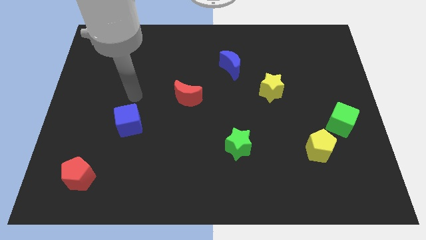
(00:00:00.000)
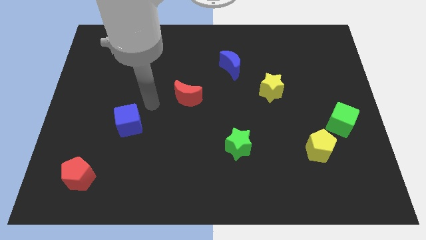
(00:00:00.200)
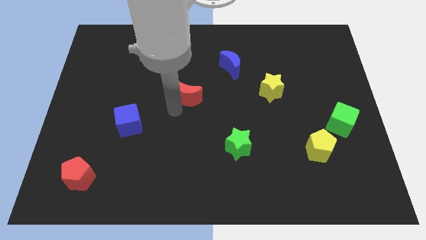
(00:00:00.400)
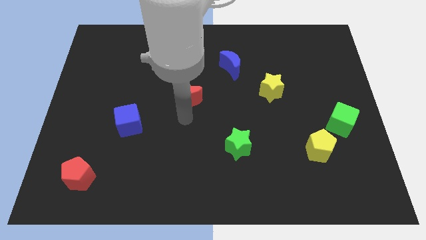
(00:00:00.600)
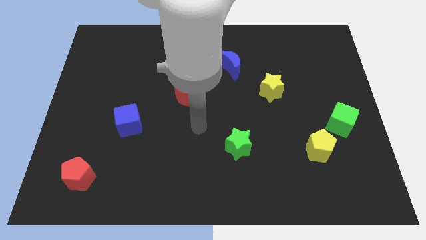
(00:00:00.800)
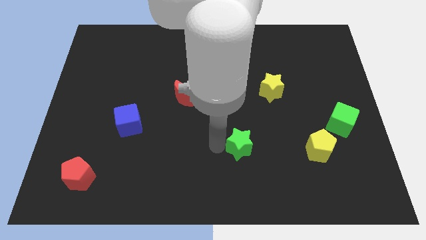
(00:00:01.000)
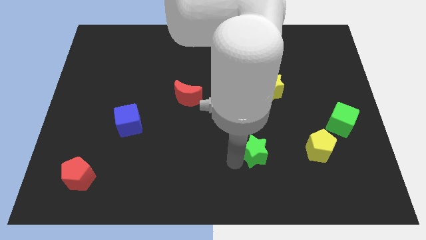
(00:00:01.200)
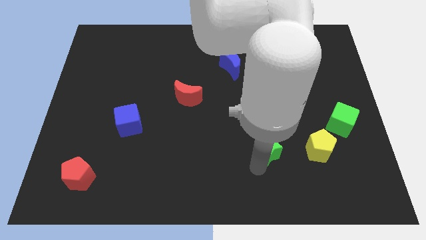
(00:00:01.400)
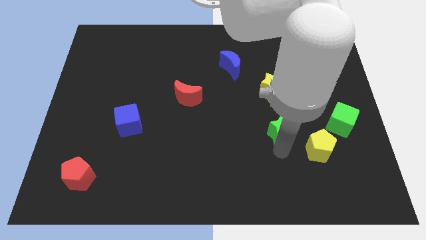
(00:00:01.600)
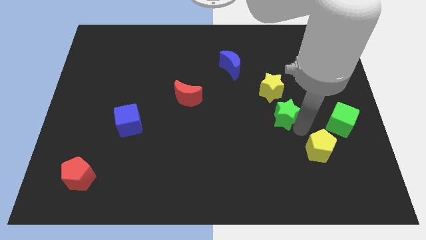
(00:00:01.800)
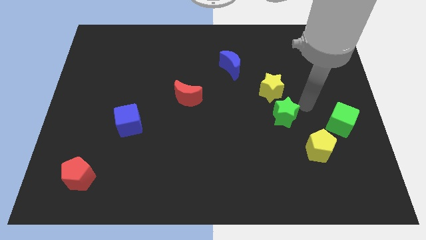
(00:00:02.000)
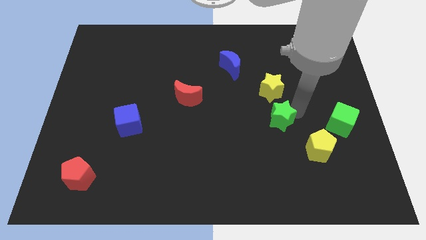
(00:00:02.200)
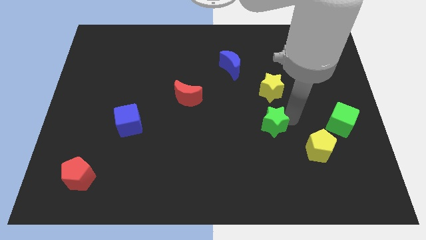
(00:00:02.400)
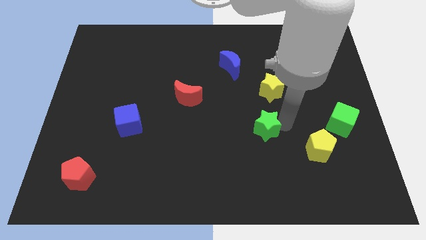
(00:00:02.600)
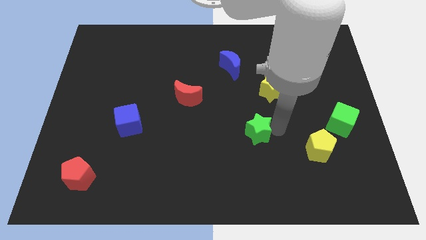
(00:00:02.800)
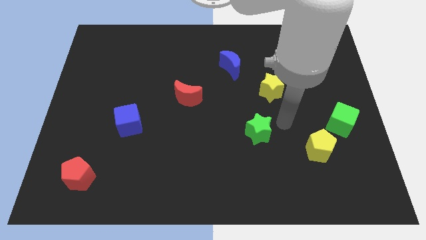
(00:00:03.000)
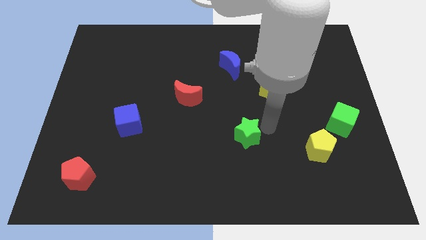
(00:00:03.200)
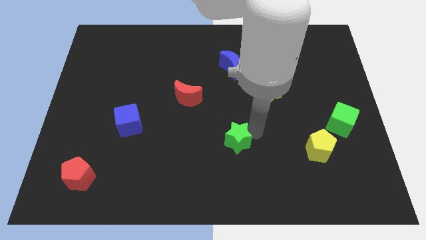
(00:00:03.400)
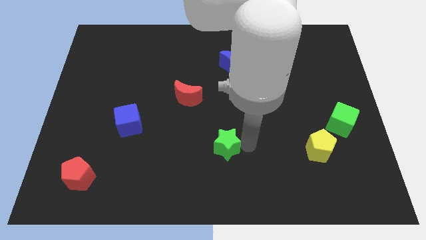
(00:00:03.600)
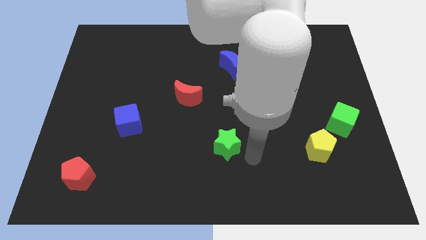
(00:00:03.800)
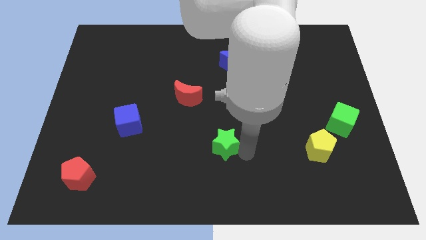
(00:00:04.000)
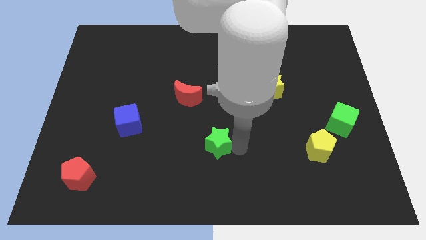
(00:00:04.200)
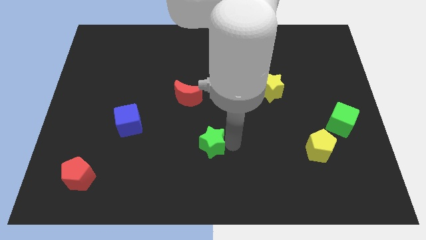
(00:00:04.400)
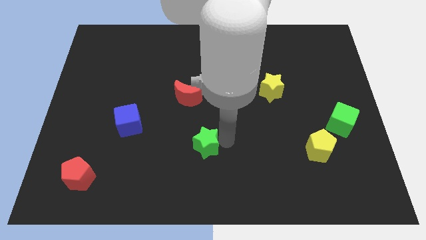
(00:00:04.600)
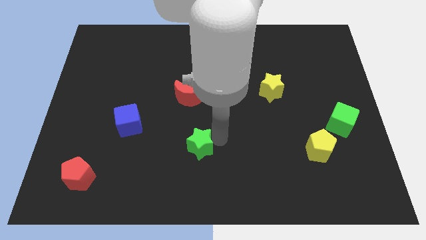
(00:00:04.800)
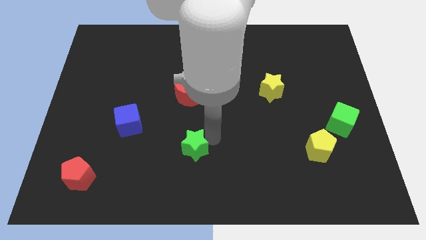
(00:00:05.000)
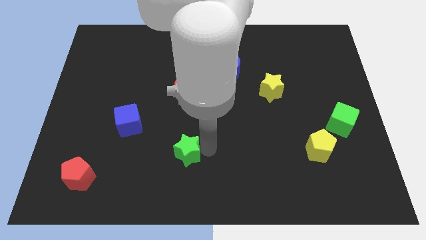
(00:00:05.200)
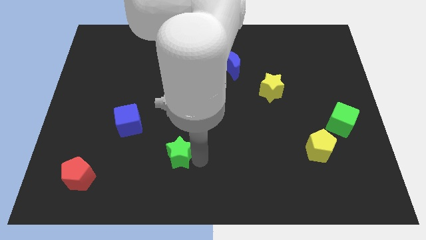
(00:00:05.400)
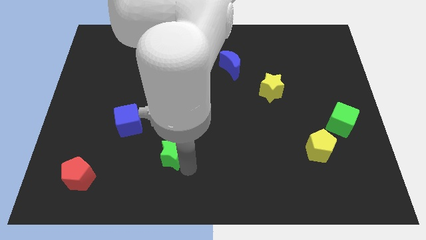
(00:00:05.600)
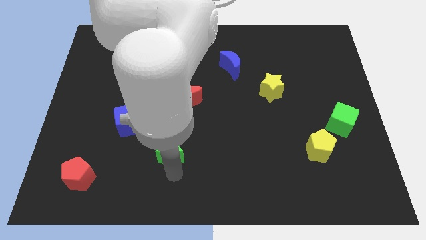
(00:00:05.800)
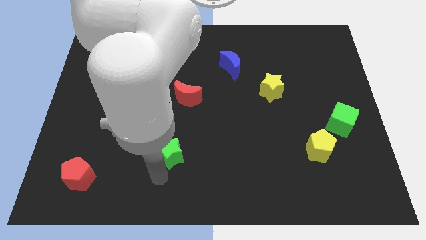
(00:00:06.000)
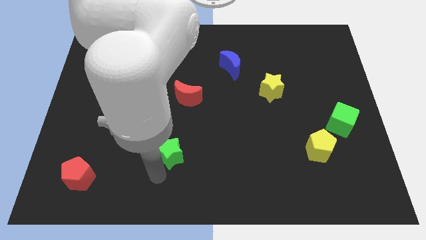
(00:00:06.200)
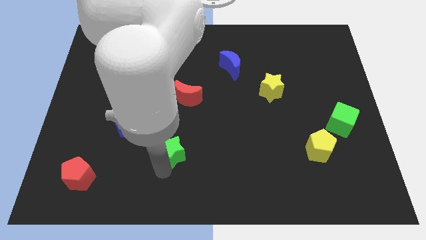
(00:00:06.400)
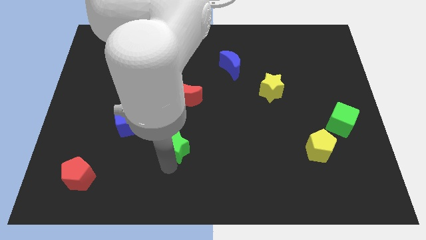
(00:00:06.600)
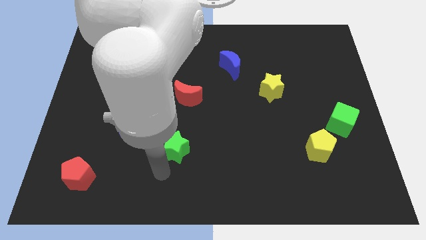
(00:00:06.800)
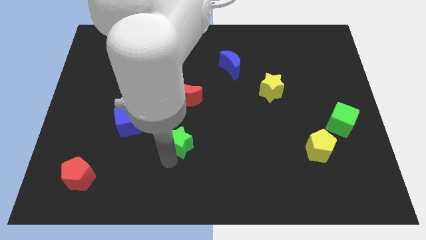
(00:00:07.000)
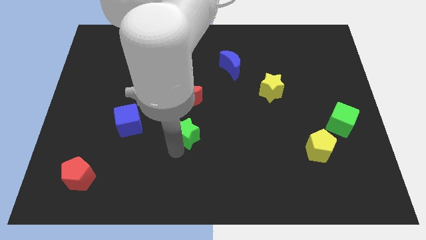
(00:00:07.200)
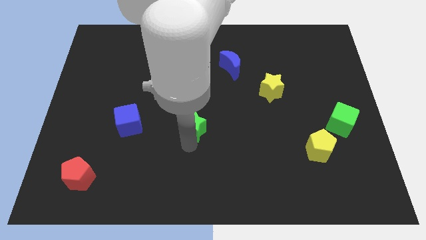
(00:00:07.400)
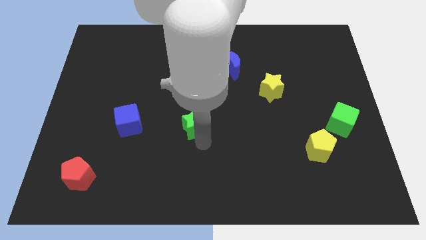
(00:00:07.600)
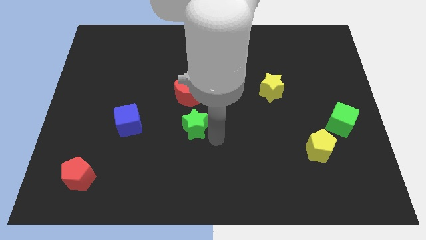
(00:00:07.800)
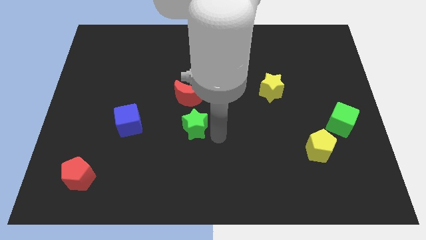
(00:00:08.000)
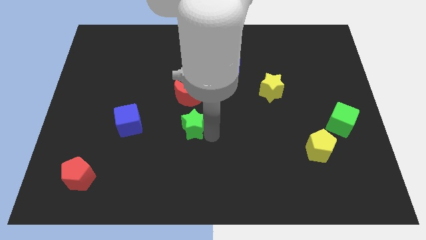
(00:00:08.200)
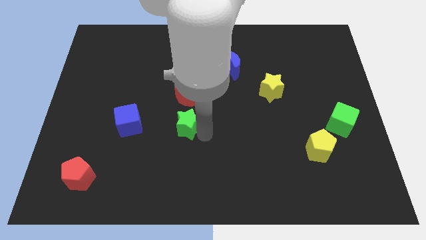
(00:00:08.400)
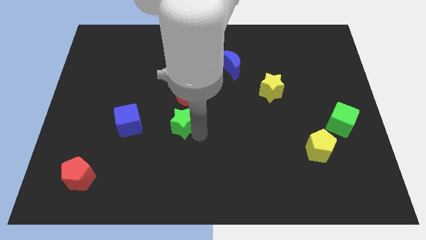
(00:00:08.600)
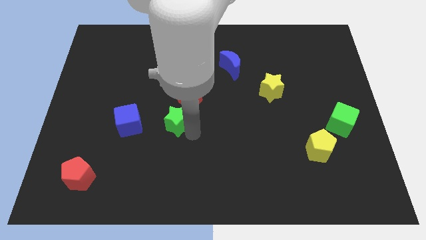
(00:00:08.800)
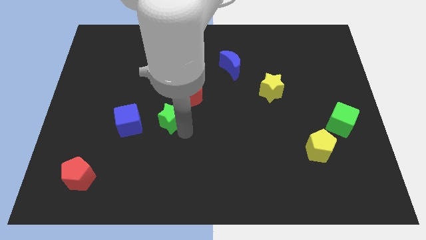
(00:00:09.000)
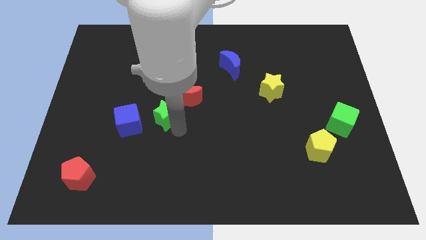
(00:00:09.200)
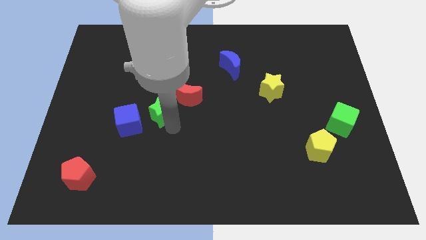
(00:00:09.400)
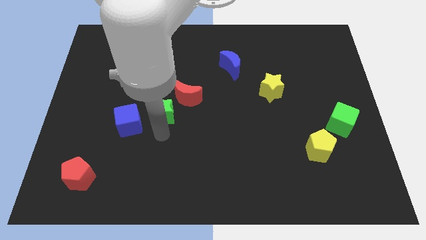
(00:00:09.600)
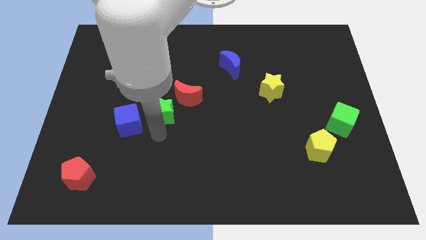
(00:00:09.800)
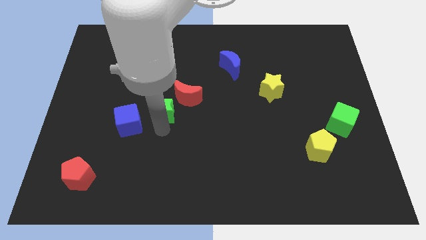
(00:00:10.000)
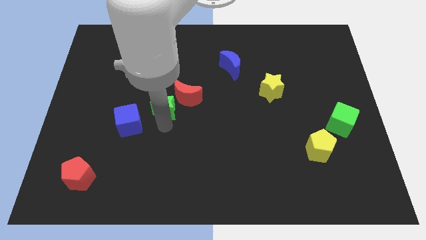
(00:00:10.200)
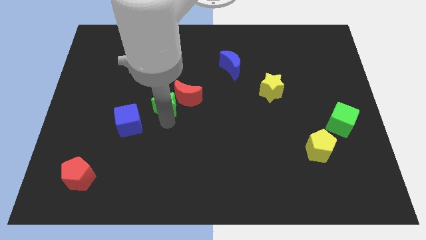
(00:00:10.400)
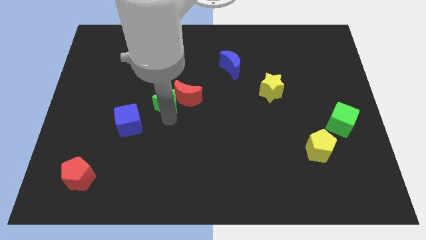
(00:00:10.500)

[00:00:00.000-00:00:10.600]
put the green star diagonally up and to the left of the red moon

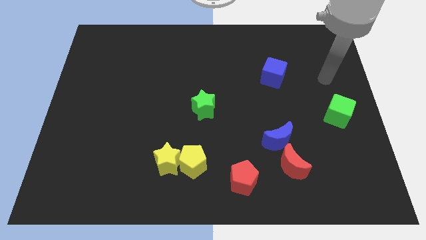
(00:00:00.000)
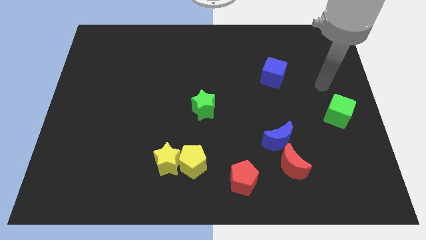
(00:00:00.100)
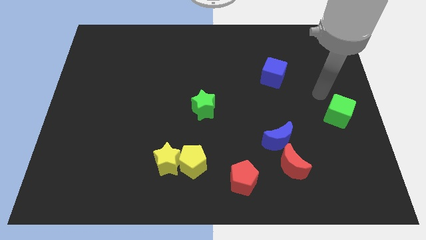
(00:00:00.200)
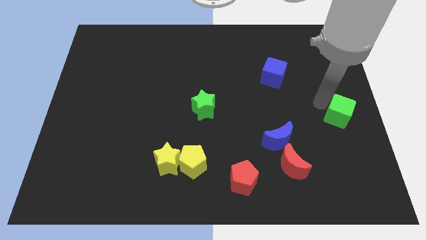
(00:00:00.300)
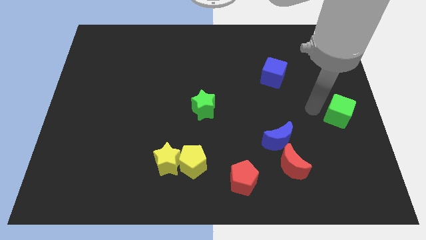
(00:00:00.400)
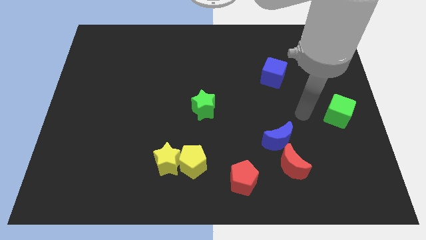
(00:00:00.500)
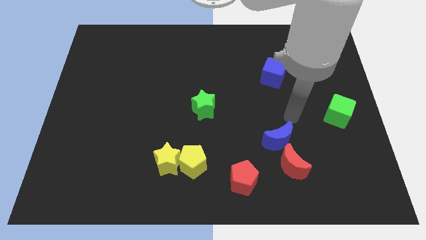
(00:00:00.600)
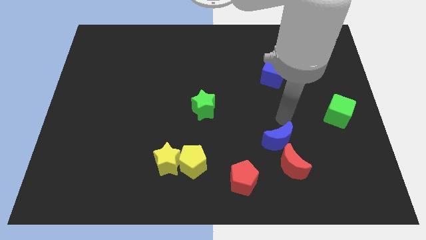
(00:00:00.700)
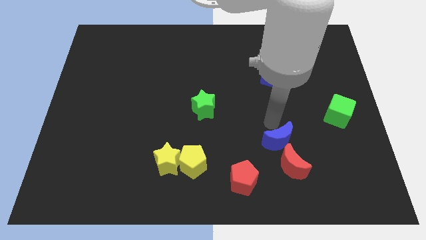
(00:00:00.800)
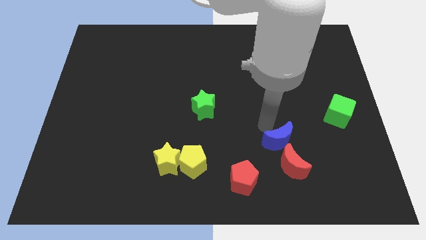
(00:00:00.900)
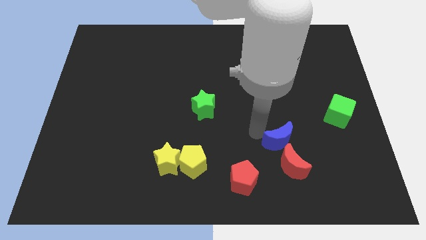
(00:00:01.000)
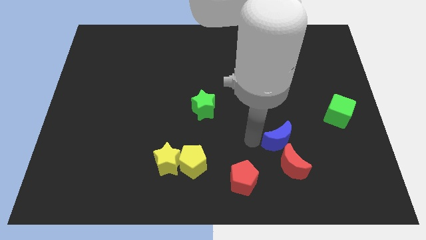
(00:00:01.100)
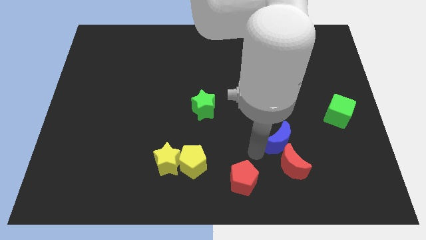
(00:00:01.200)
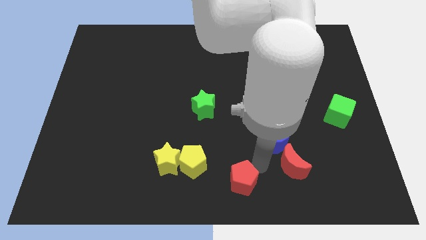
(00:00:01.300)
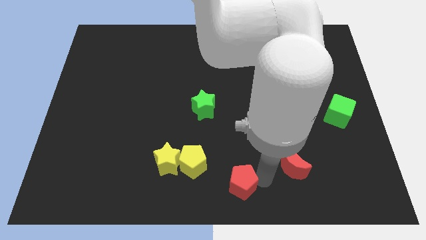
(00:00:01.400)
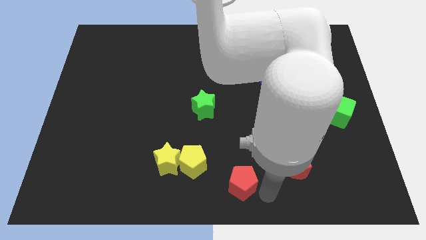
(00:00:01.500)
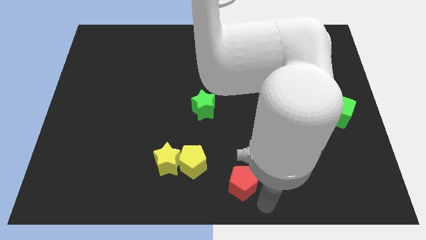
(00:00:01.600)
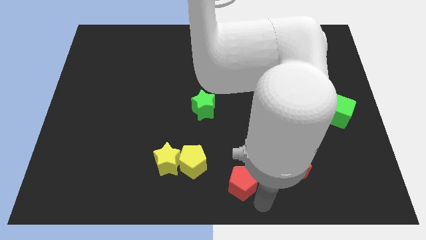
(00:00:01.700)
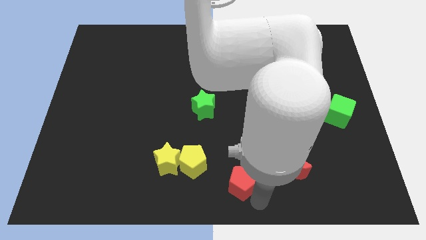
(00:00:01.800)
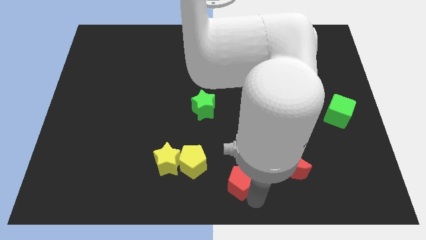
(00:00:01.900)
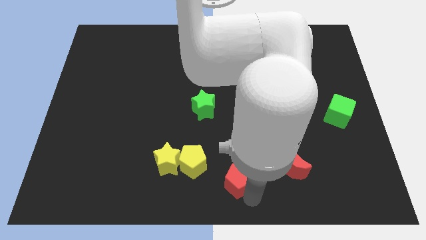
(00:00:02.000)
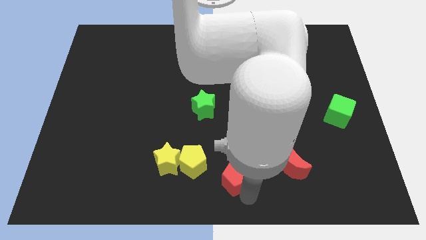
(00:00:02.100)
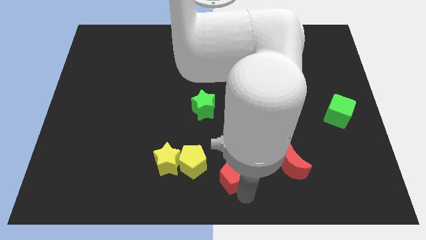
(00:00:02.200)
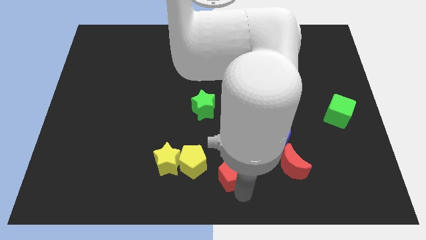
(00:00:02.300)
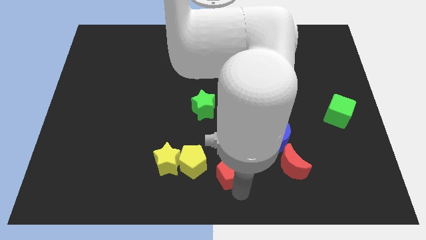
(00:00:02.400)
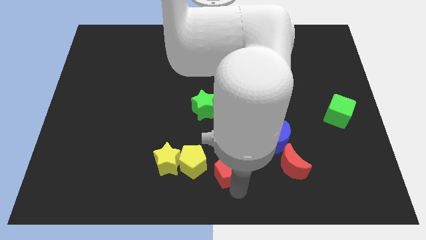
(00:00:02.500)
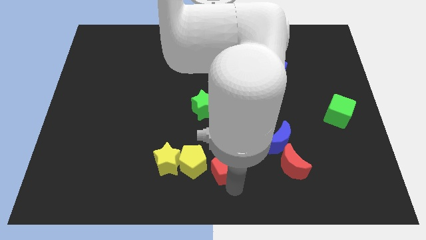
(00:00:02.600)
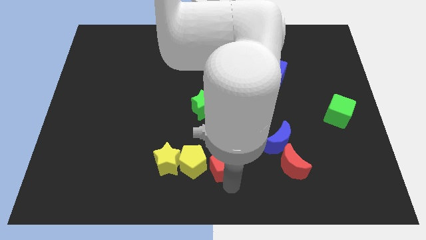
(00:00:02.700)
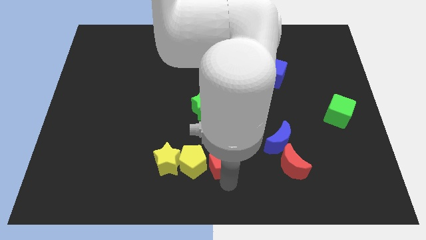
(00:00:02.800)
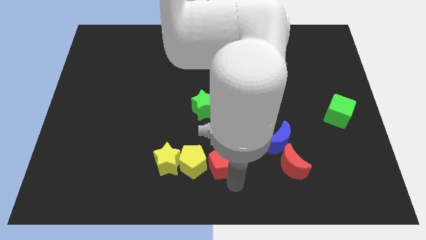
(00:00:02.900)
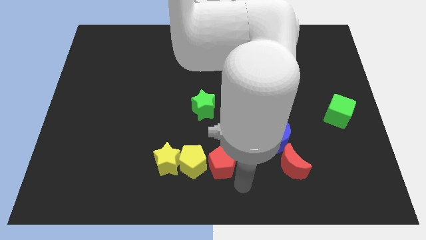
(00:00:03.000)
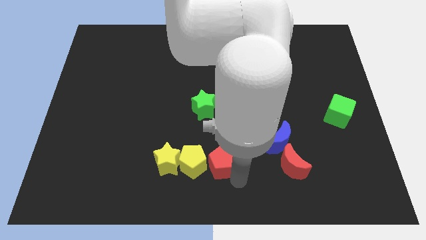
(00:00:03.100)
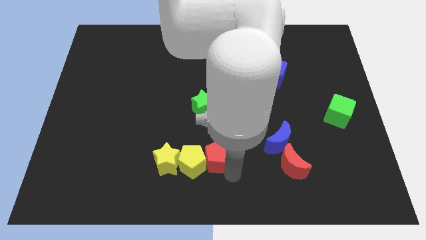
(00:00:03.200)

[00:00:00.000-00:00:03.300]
push the red pentagon to the bottom side of the green star
